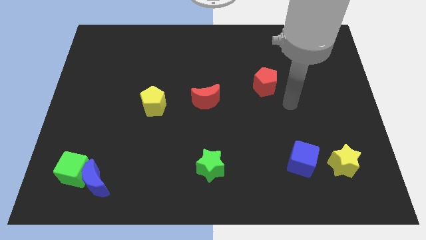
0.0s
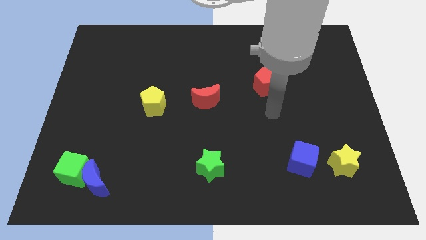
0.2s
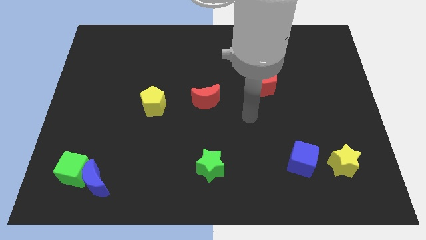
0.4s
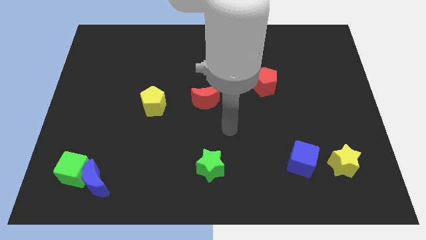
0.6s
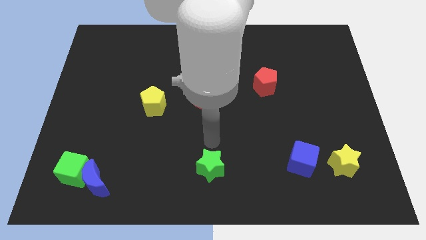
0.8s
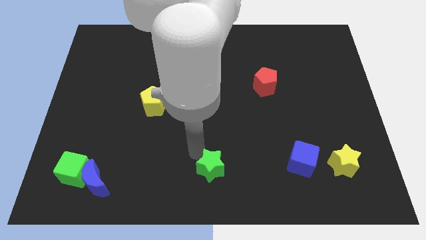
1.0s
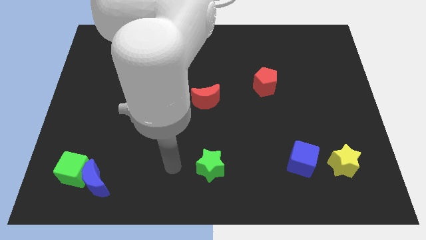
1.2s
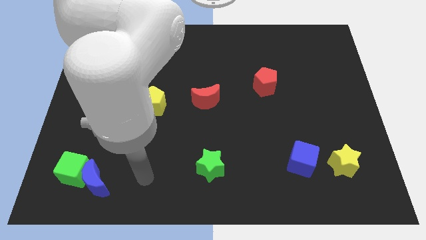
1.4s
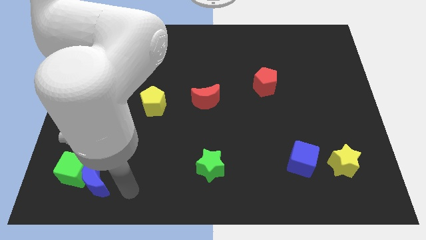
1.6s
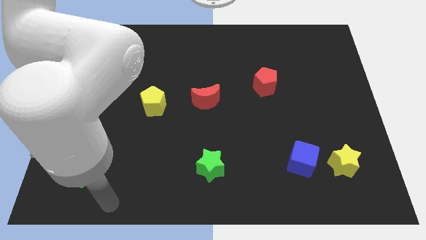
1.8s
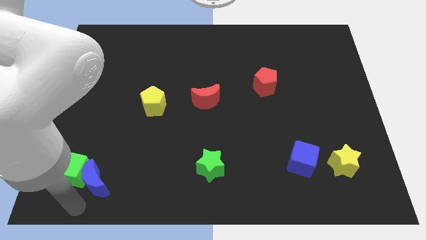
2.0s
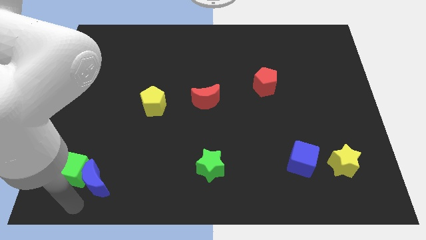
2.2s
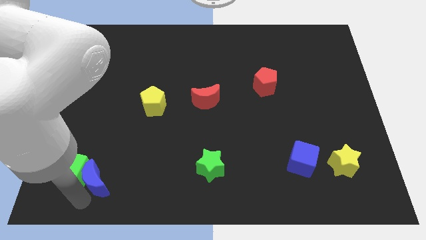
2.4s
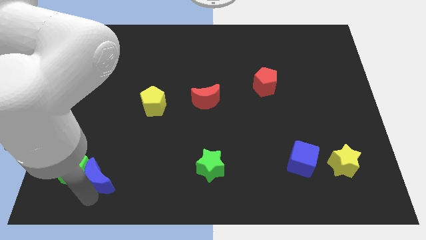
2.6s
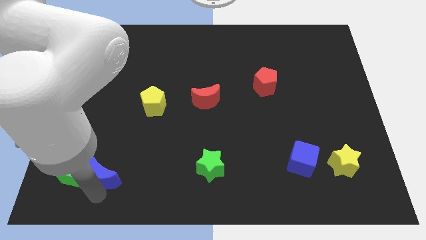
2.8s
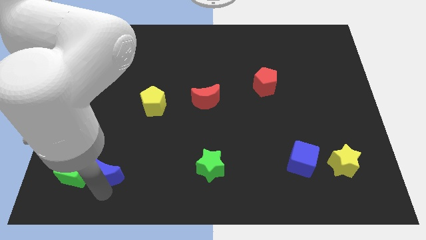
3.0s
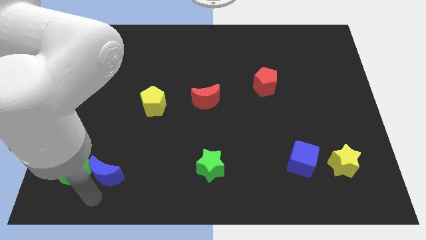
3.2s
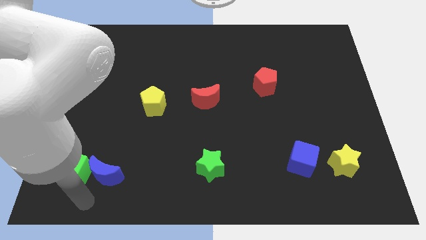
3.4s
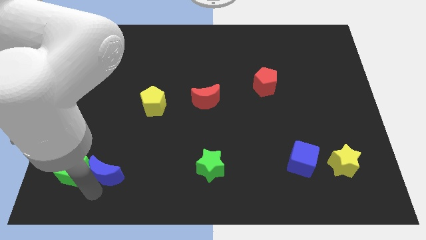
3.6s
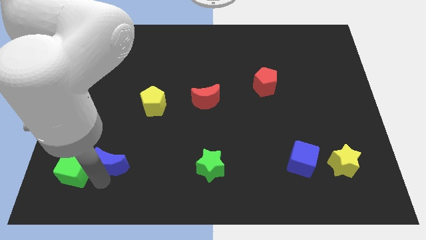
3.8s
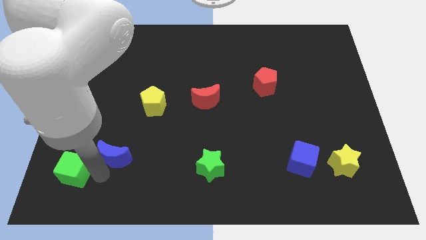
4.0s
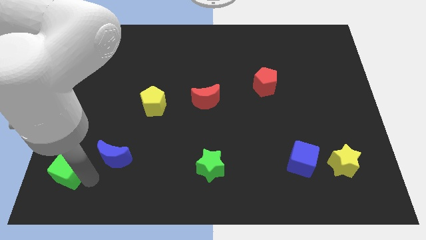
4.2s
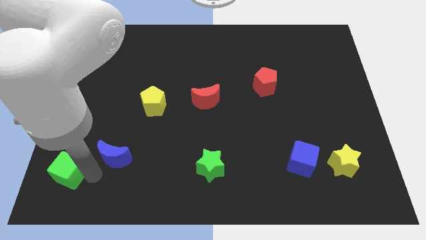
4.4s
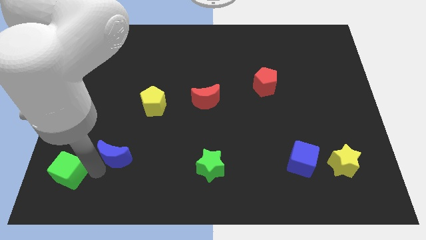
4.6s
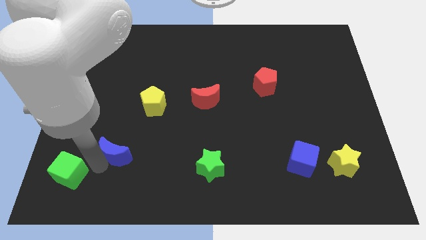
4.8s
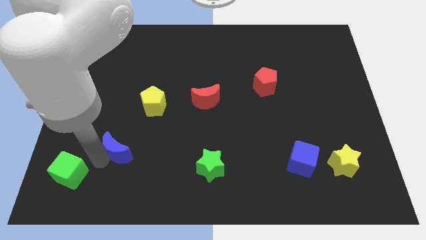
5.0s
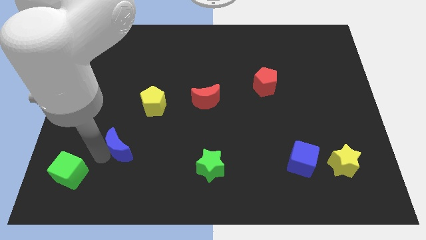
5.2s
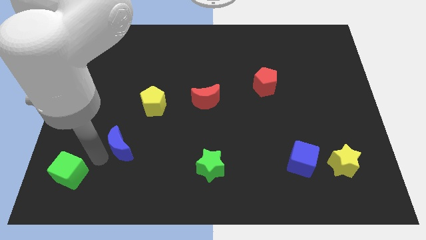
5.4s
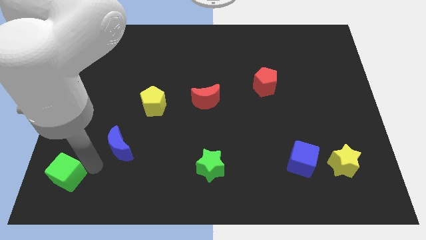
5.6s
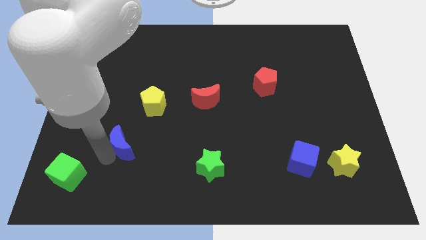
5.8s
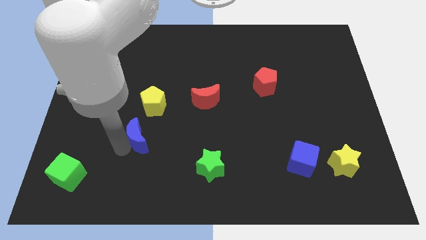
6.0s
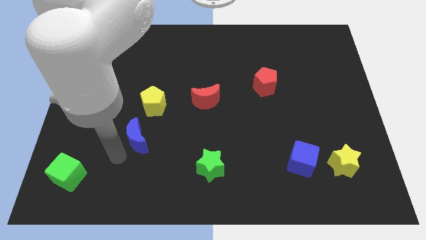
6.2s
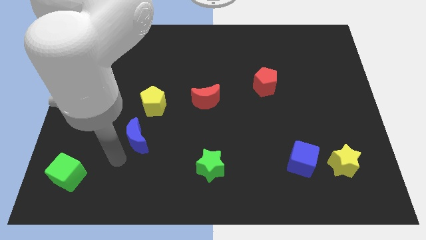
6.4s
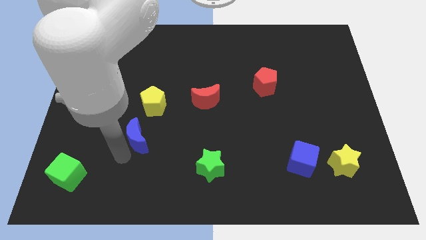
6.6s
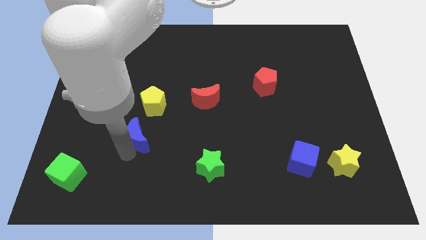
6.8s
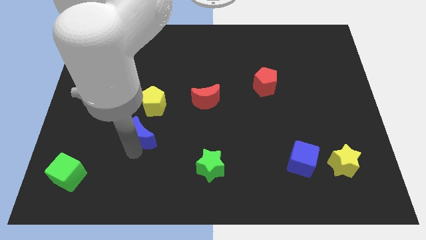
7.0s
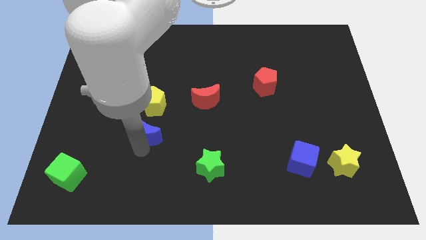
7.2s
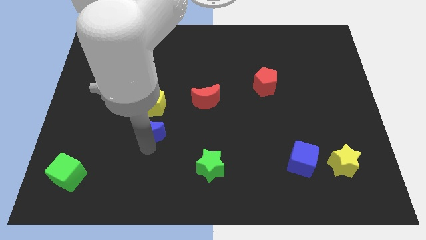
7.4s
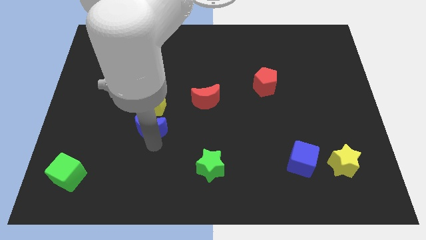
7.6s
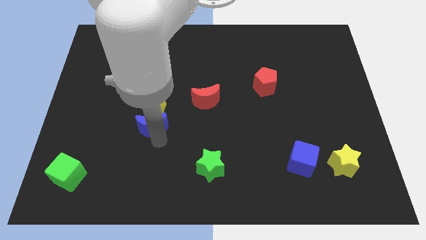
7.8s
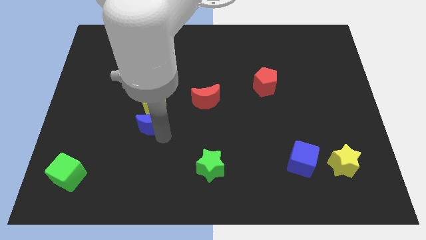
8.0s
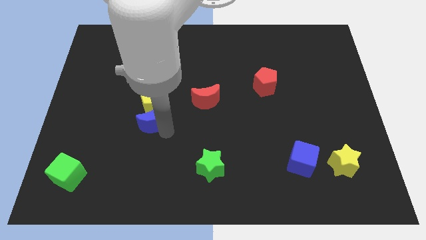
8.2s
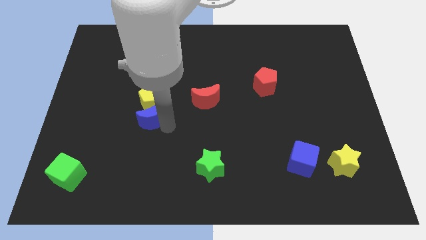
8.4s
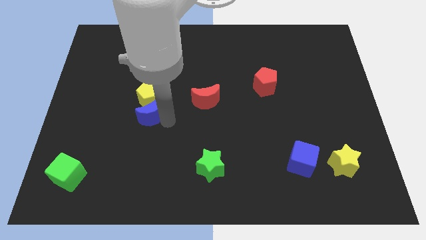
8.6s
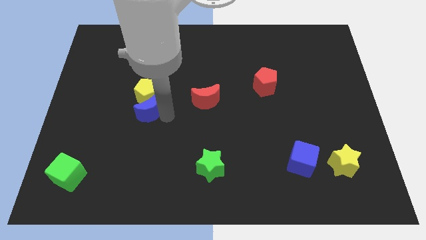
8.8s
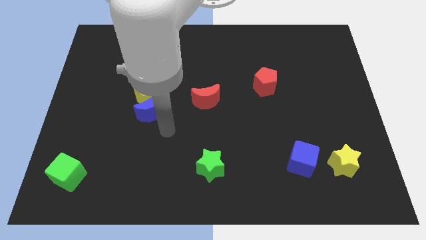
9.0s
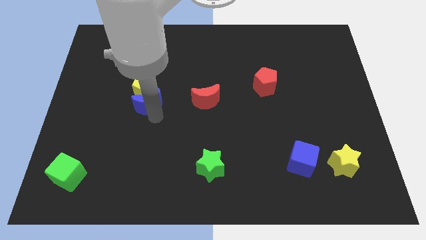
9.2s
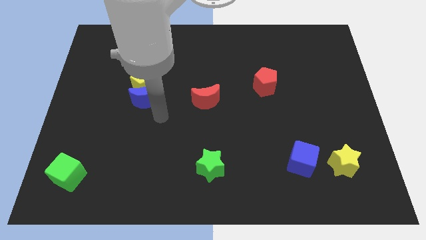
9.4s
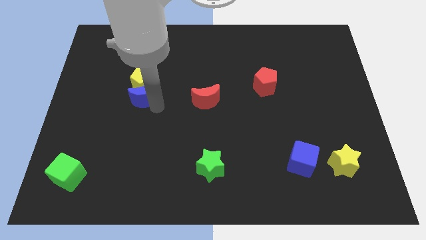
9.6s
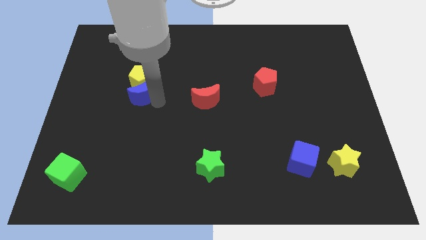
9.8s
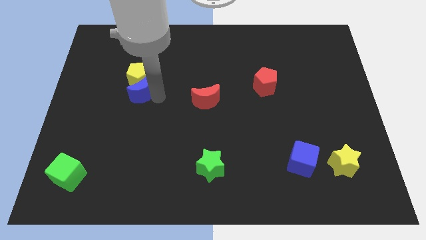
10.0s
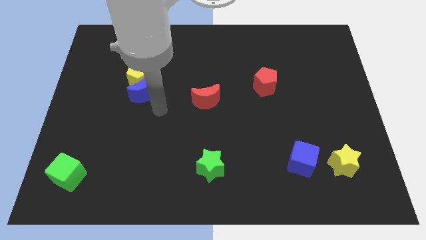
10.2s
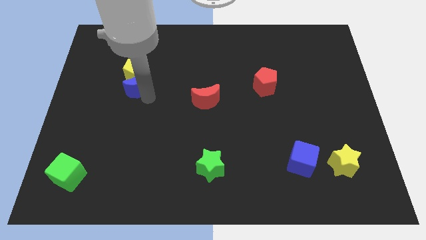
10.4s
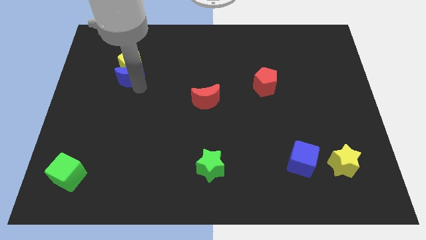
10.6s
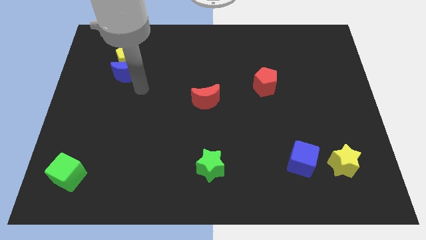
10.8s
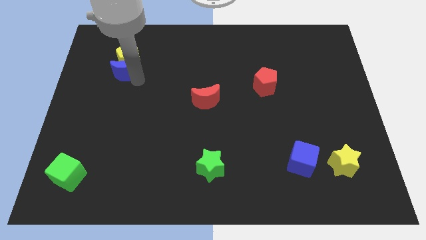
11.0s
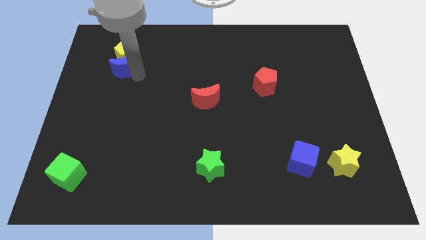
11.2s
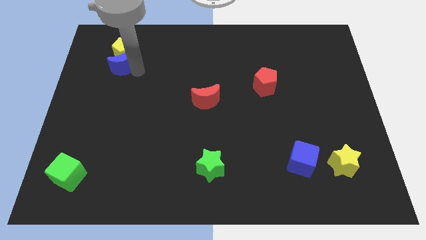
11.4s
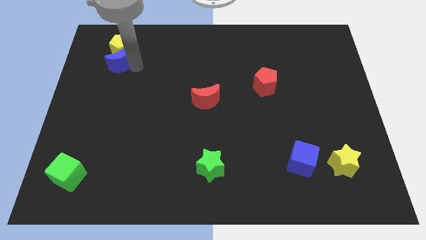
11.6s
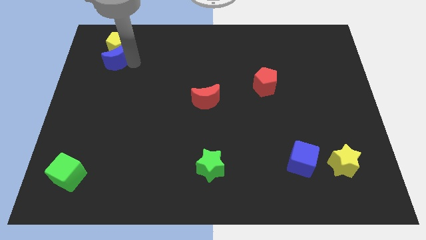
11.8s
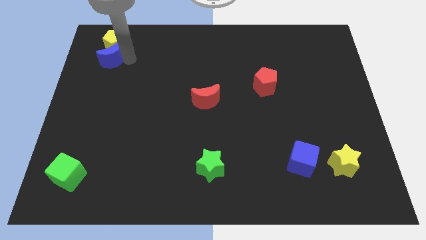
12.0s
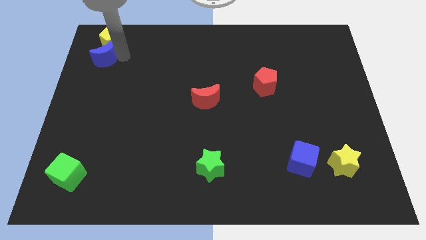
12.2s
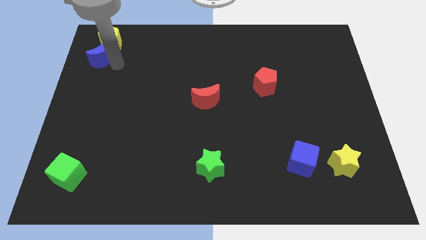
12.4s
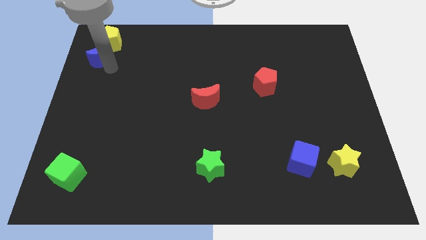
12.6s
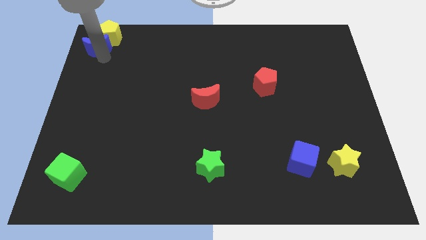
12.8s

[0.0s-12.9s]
push the blue moon to the top left
